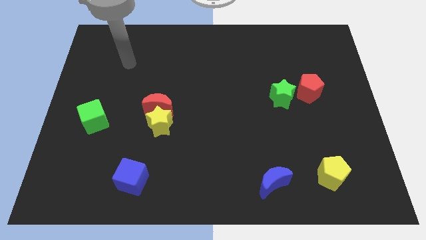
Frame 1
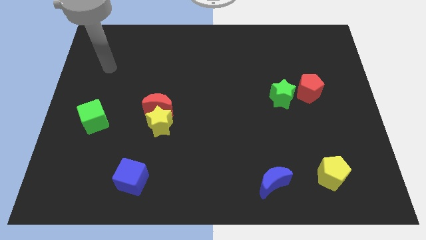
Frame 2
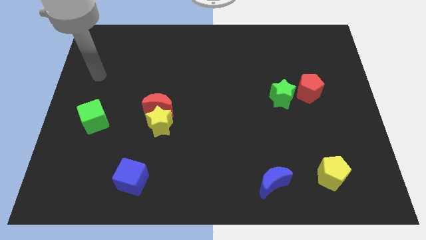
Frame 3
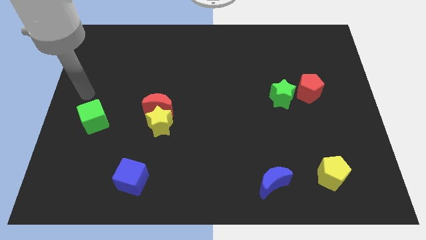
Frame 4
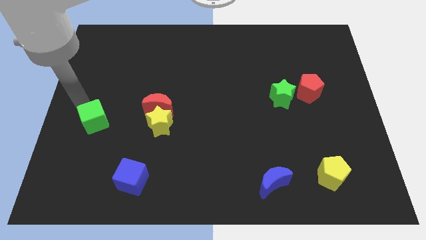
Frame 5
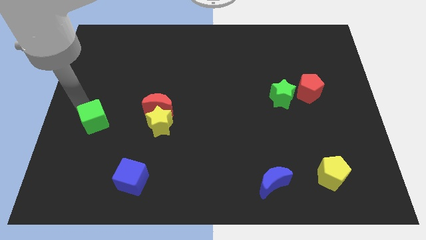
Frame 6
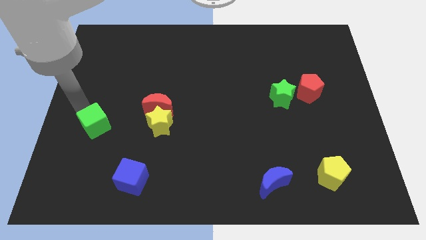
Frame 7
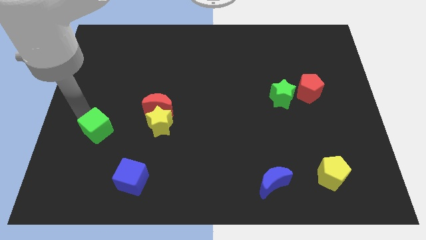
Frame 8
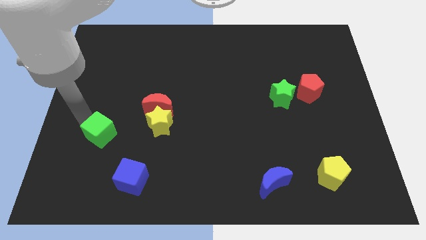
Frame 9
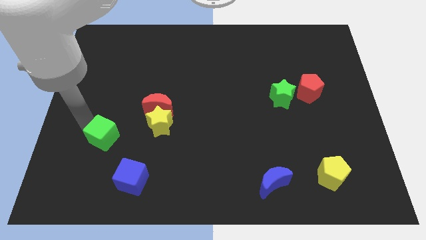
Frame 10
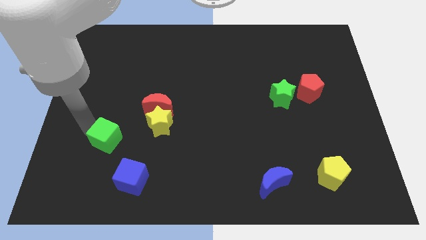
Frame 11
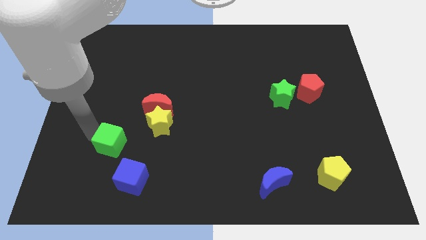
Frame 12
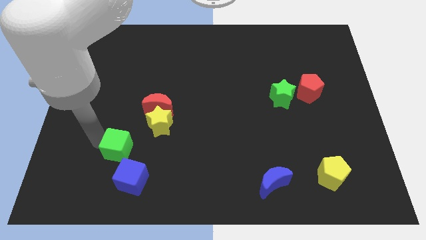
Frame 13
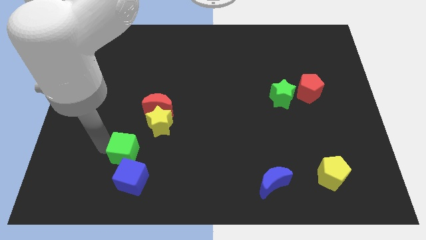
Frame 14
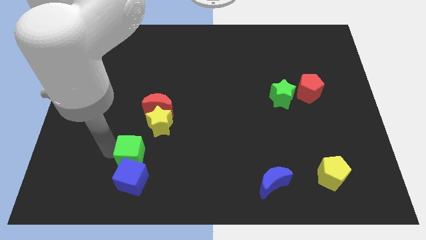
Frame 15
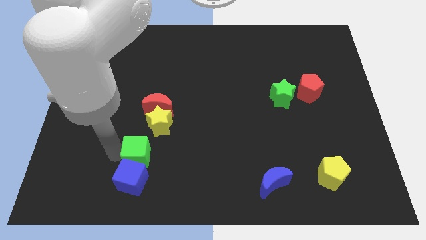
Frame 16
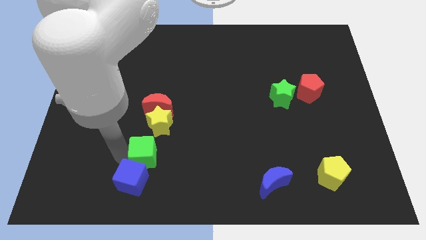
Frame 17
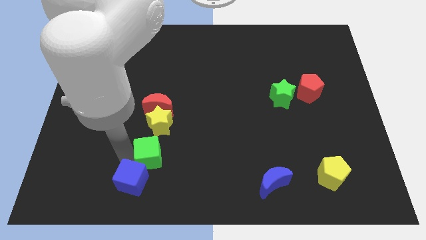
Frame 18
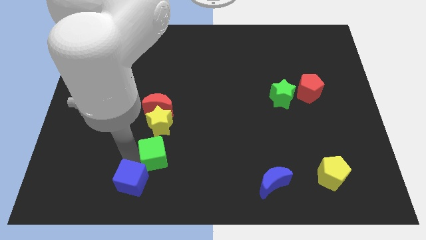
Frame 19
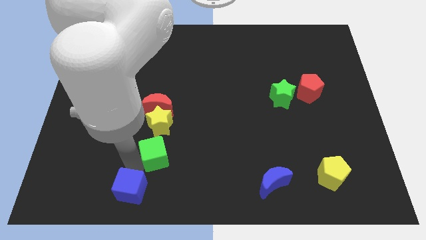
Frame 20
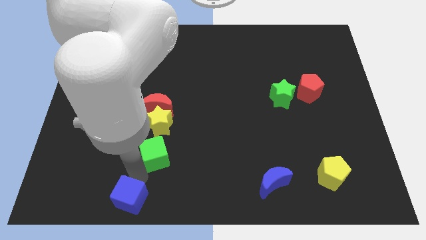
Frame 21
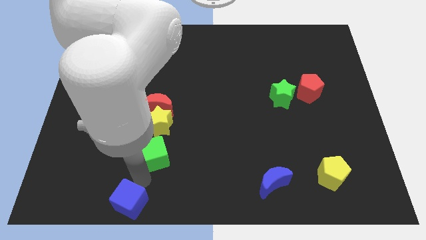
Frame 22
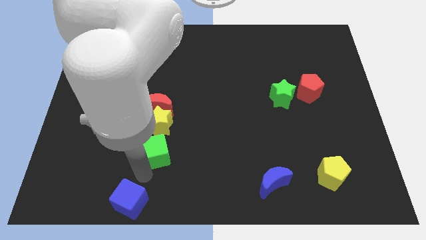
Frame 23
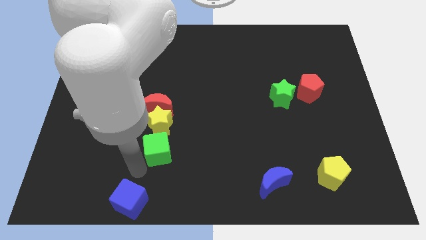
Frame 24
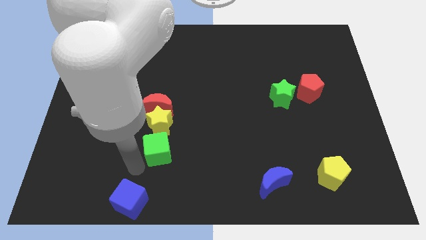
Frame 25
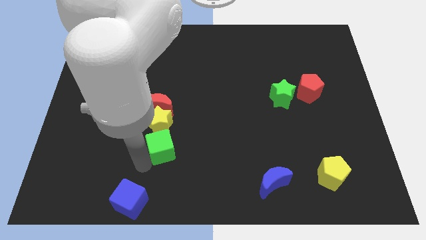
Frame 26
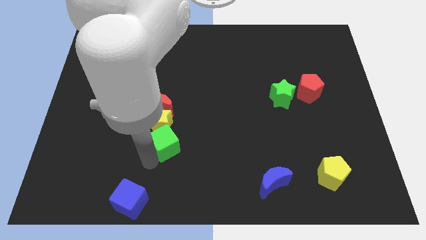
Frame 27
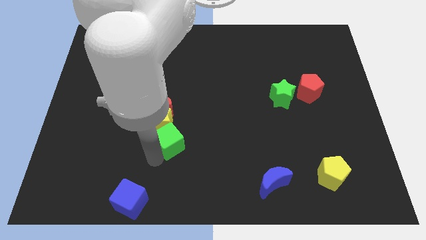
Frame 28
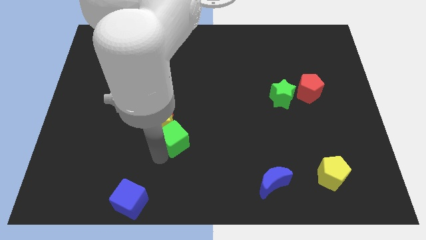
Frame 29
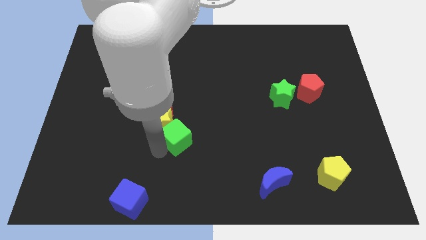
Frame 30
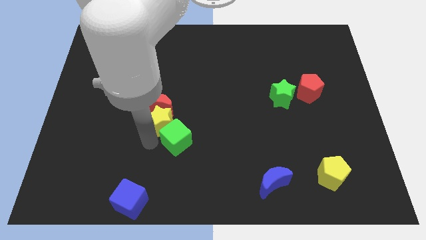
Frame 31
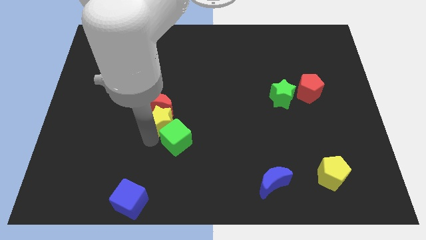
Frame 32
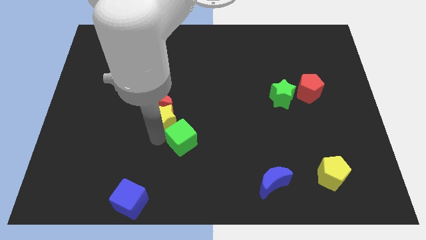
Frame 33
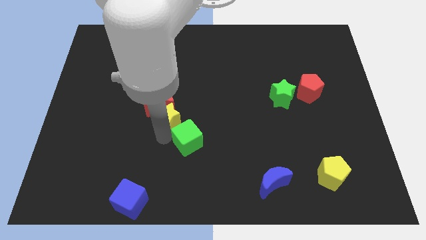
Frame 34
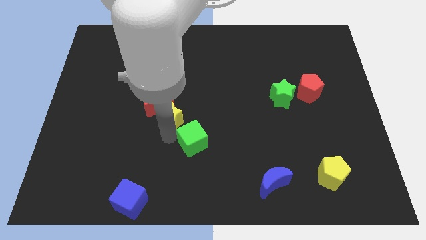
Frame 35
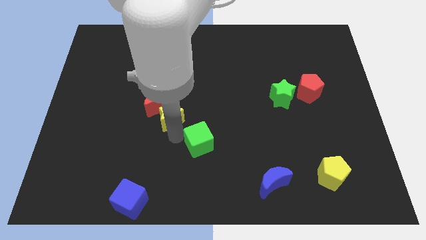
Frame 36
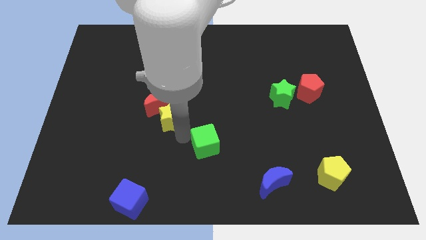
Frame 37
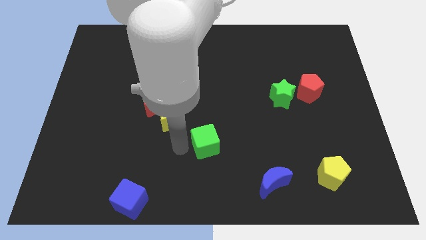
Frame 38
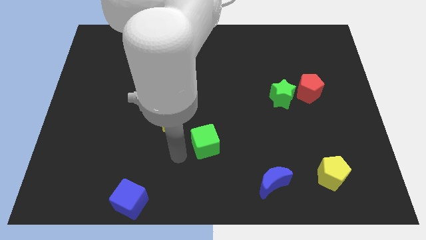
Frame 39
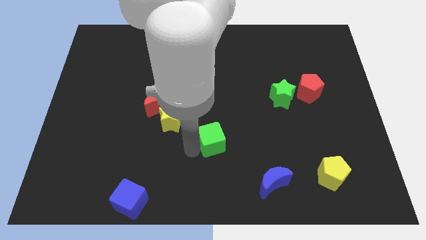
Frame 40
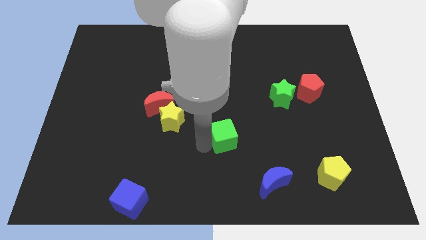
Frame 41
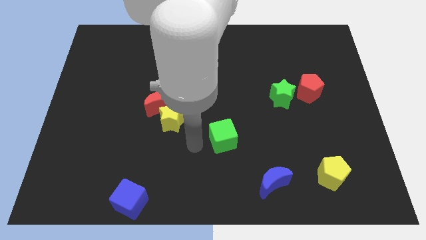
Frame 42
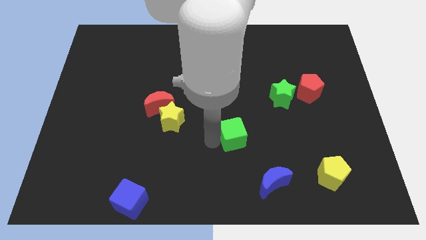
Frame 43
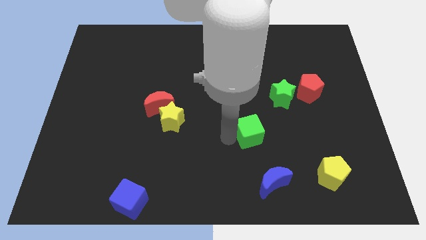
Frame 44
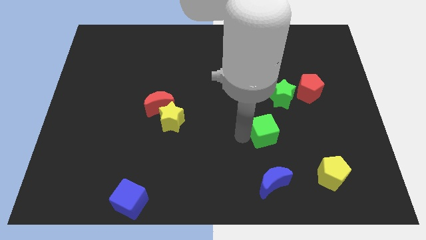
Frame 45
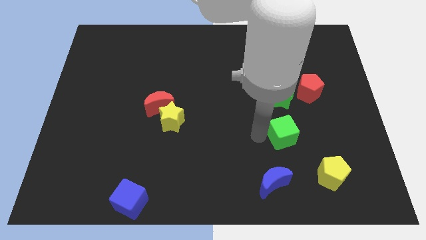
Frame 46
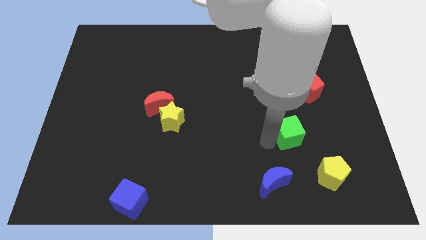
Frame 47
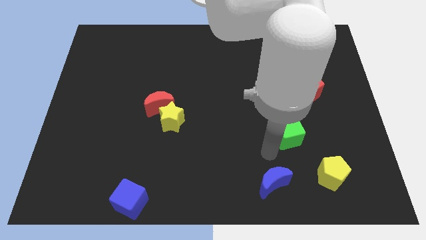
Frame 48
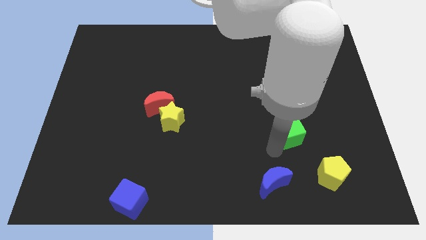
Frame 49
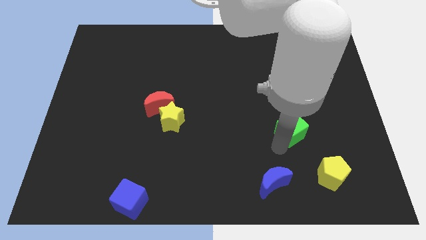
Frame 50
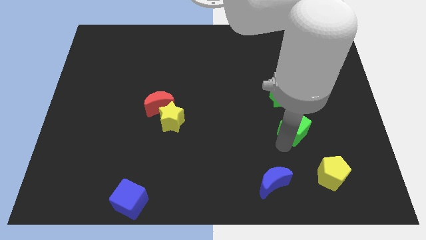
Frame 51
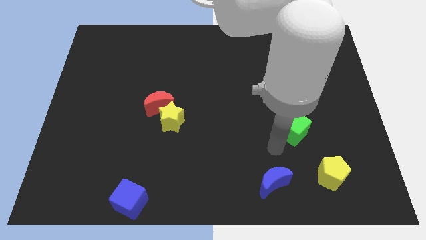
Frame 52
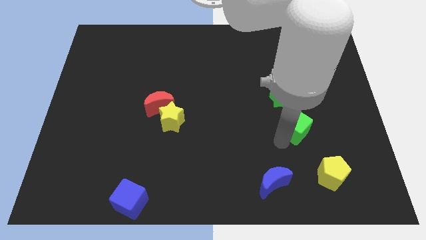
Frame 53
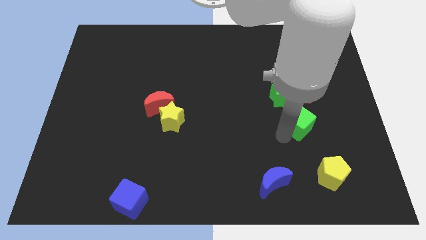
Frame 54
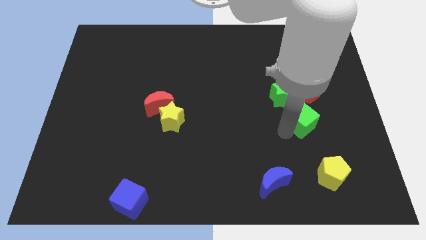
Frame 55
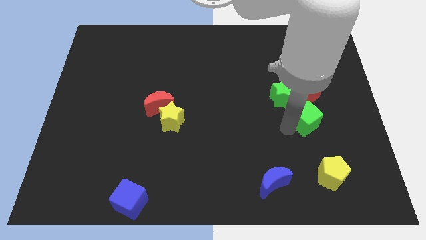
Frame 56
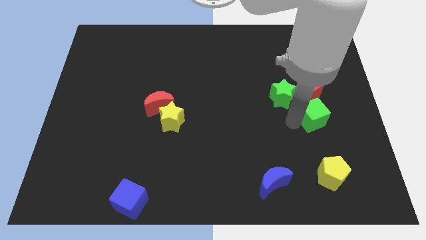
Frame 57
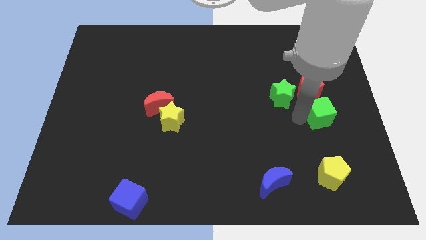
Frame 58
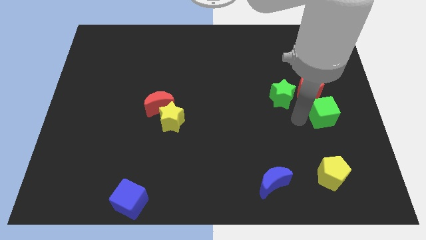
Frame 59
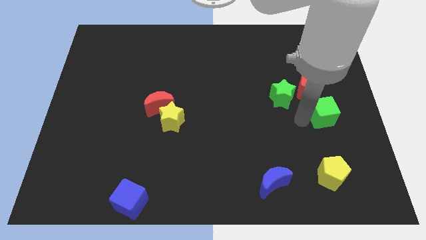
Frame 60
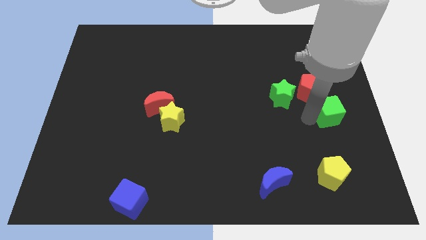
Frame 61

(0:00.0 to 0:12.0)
push the green cube to the right side

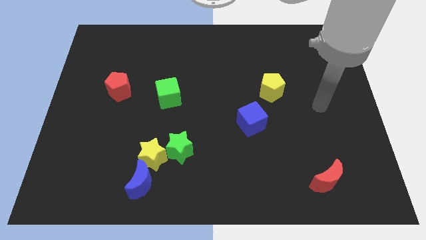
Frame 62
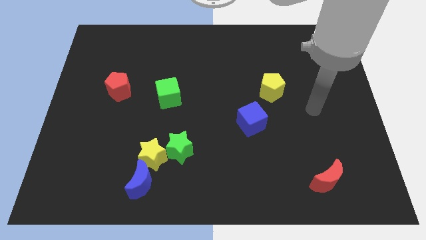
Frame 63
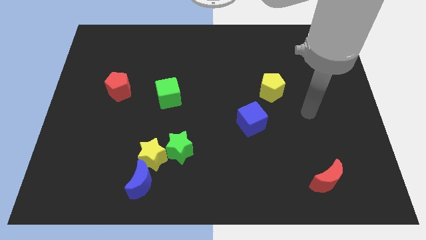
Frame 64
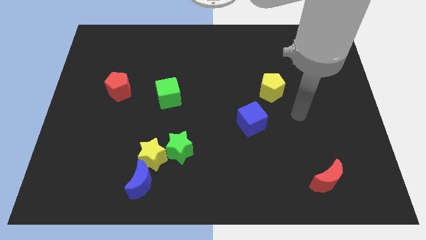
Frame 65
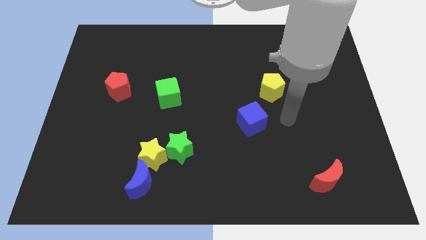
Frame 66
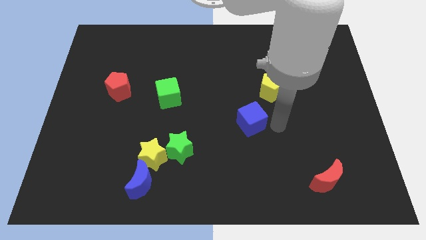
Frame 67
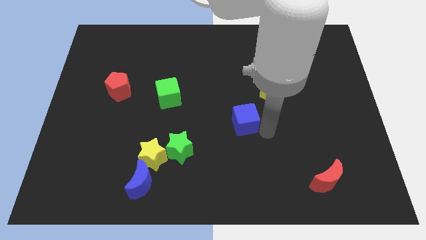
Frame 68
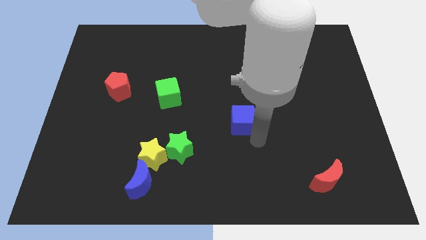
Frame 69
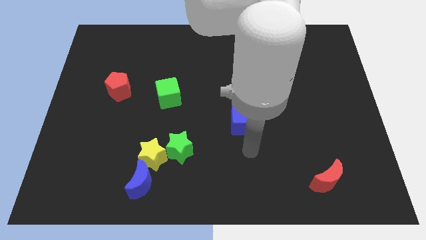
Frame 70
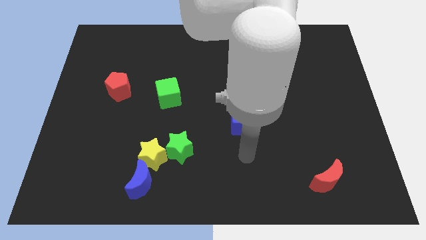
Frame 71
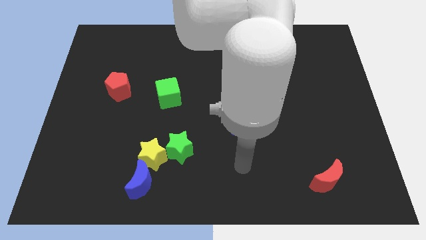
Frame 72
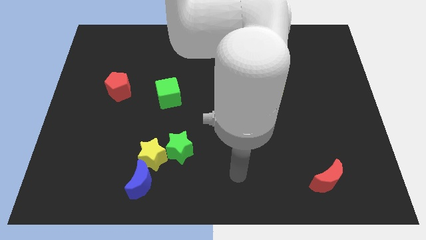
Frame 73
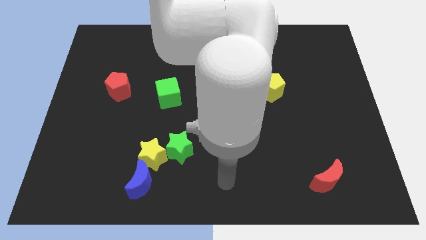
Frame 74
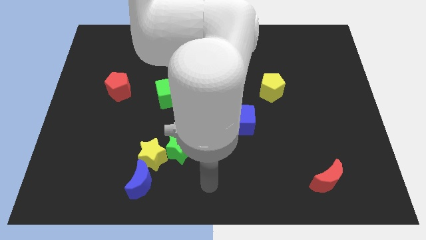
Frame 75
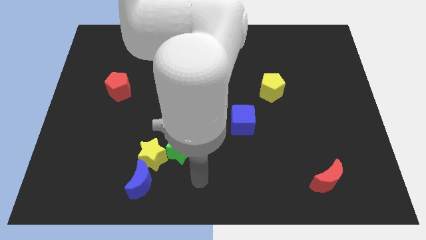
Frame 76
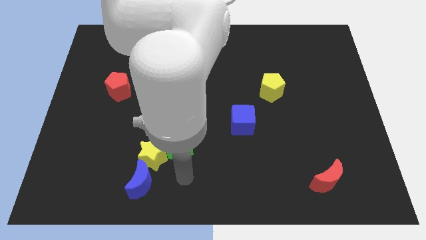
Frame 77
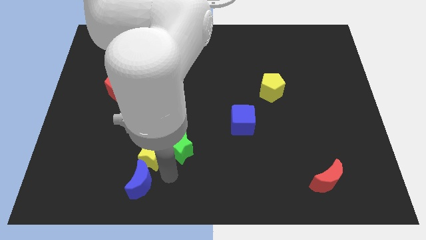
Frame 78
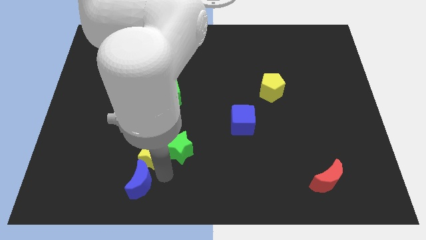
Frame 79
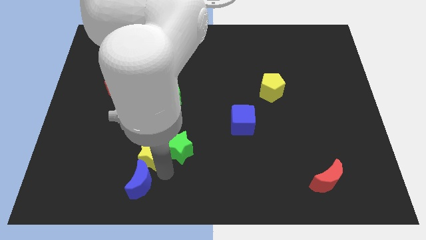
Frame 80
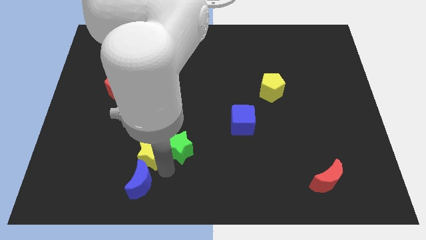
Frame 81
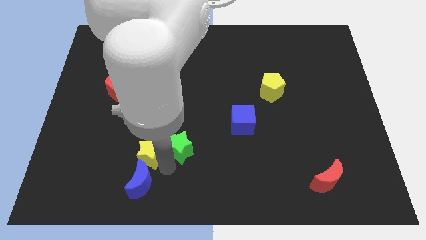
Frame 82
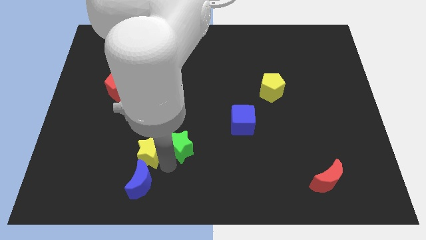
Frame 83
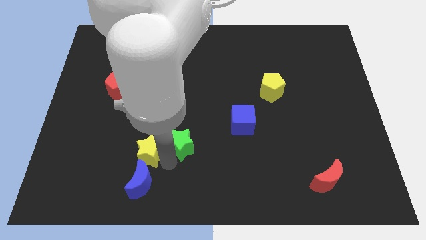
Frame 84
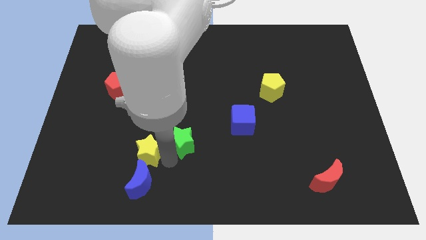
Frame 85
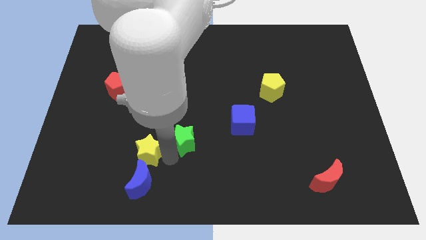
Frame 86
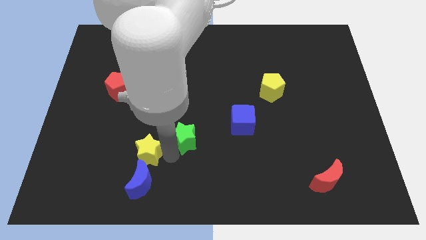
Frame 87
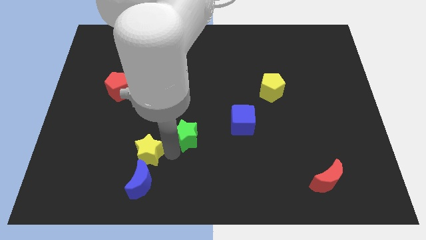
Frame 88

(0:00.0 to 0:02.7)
push the green star to the middle of the board
